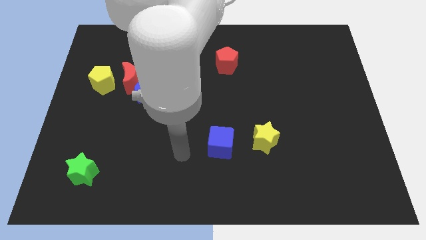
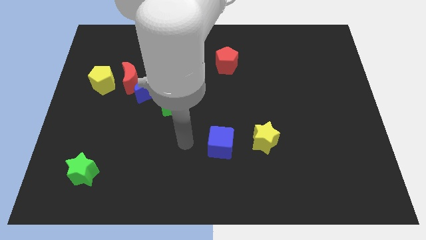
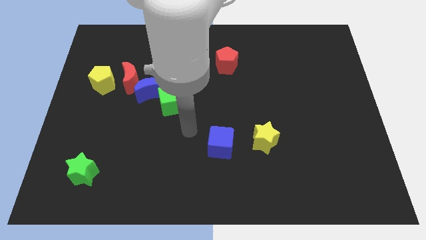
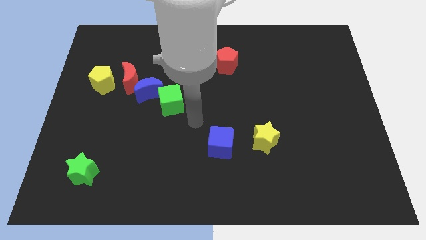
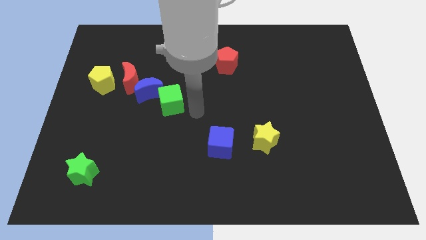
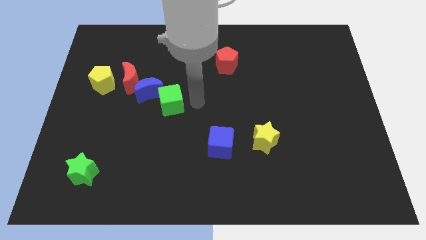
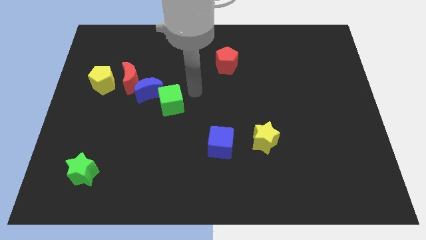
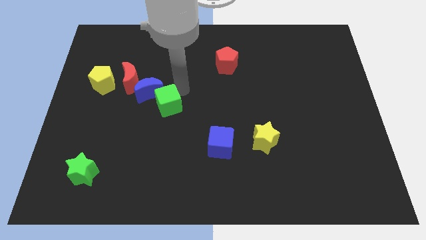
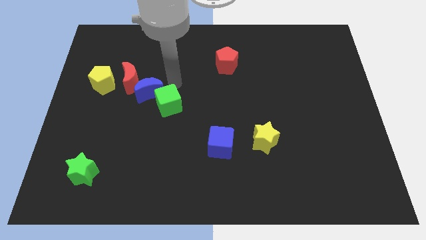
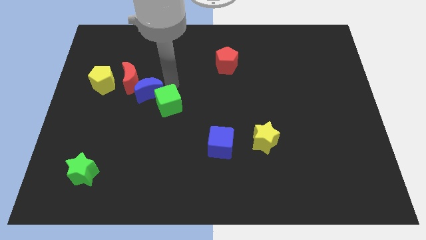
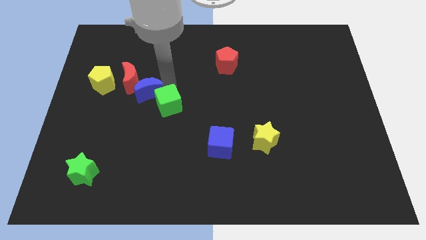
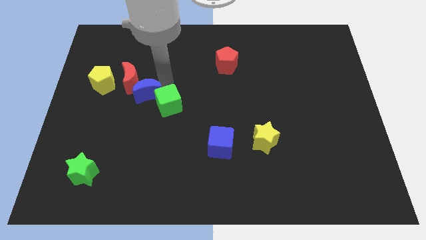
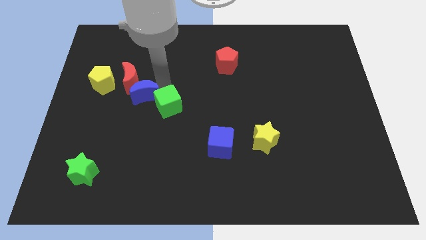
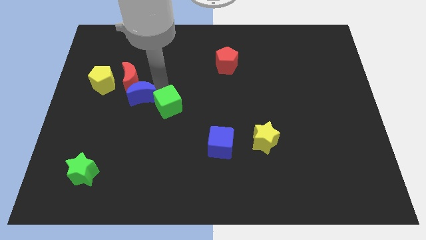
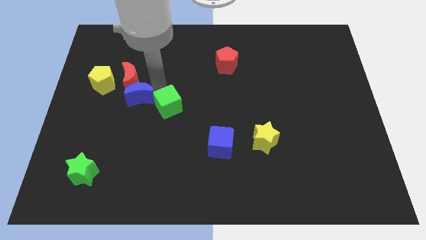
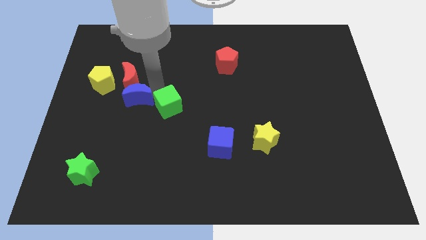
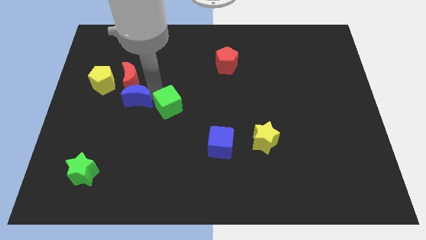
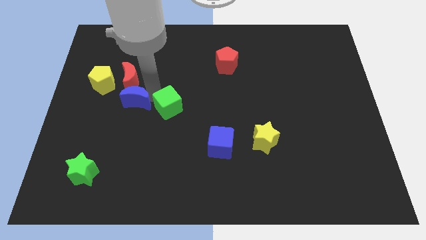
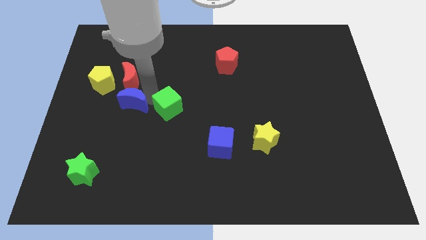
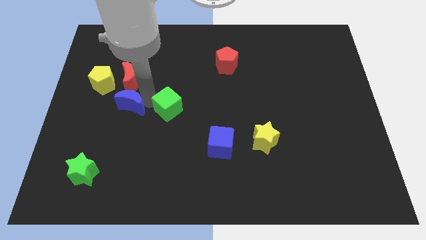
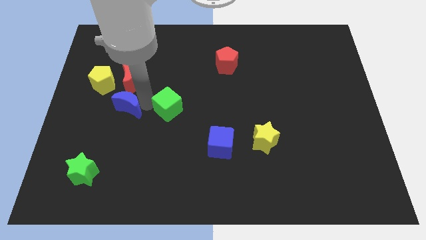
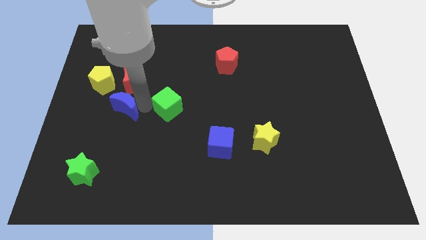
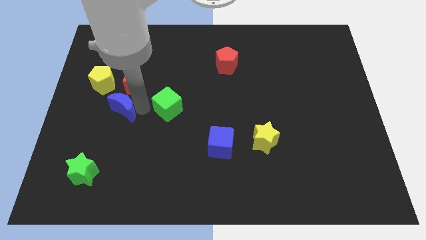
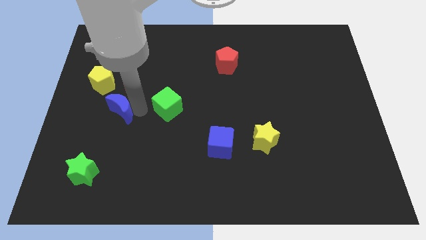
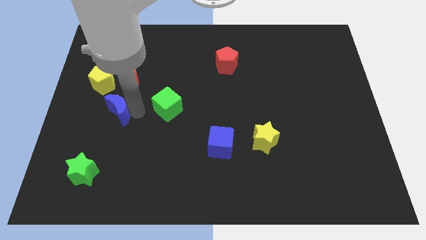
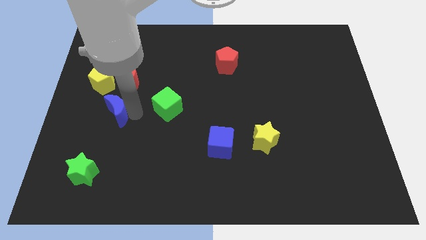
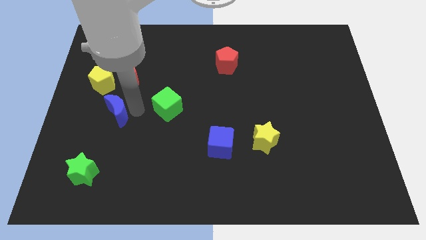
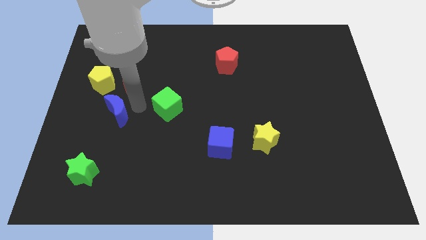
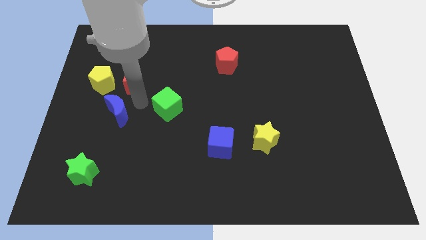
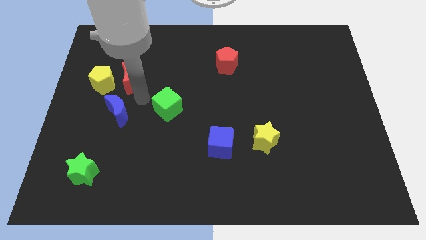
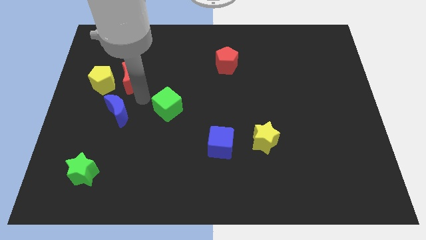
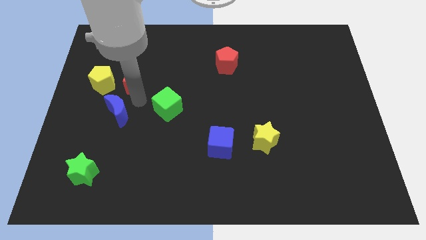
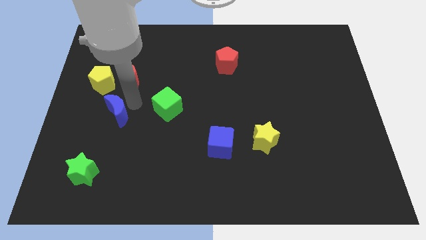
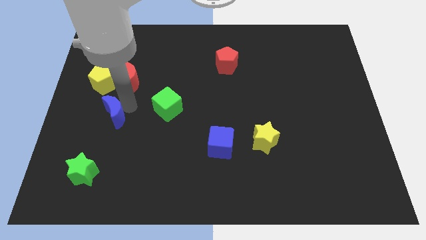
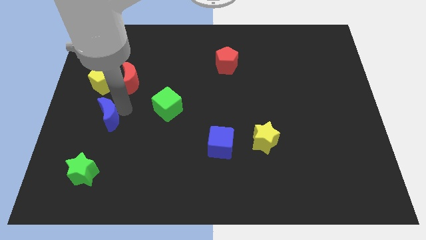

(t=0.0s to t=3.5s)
separate the blue moon from the red moon and green cube

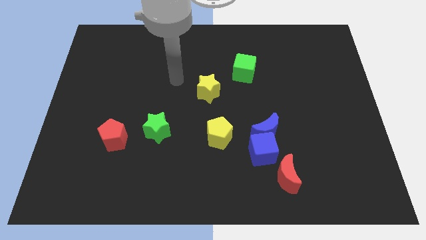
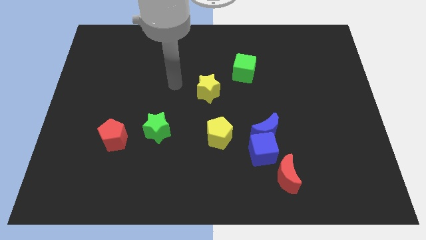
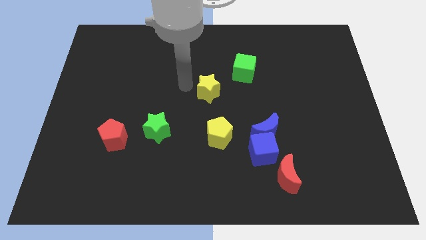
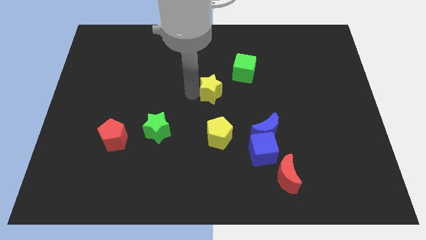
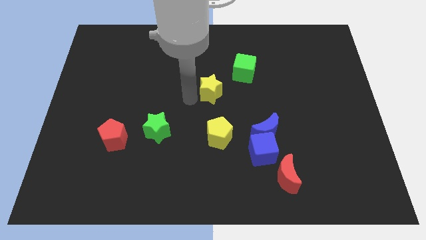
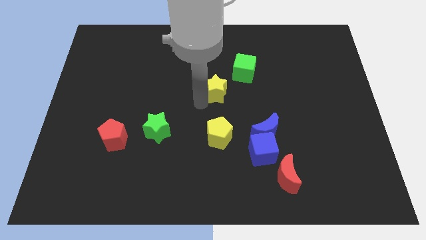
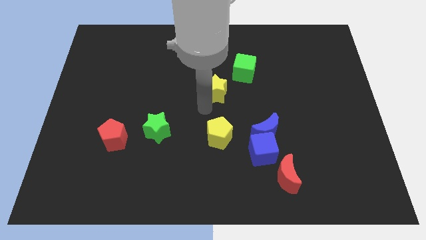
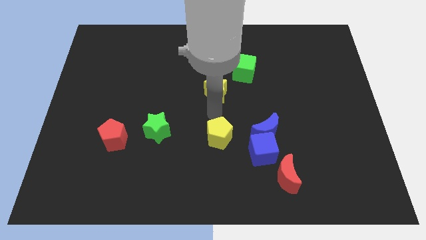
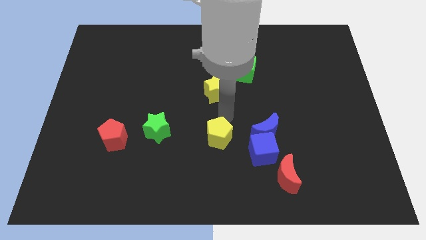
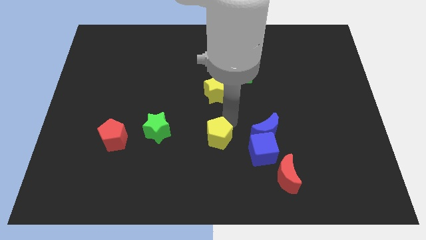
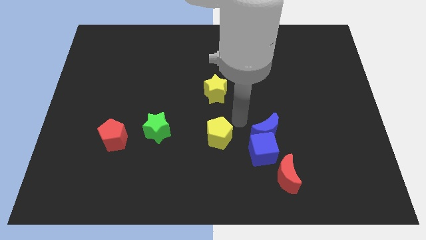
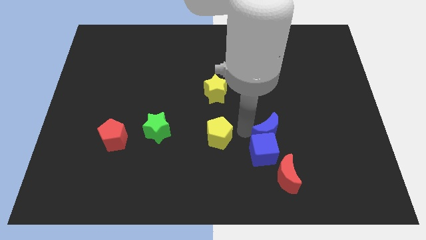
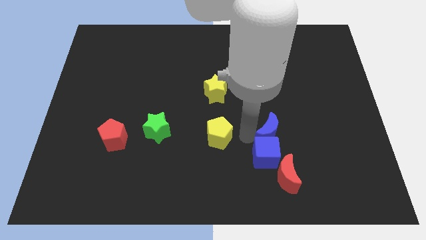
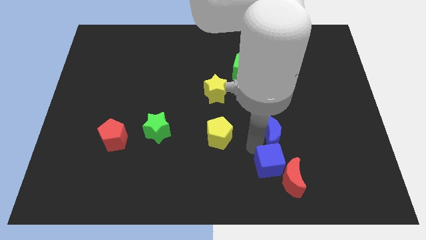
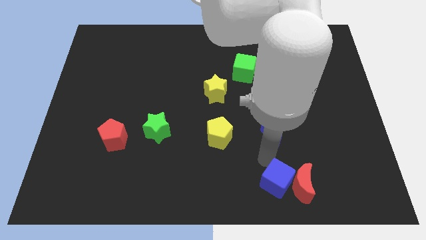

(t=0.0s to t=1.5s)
separate the blue moon from the blue cube

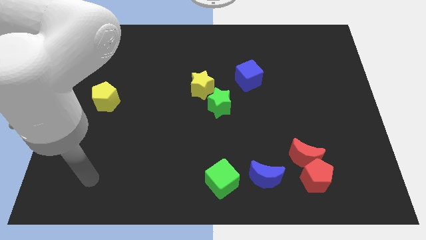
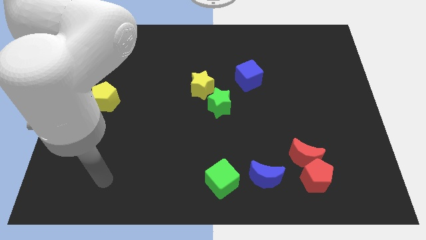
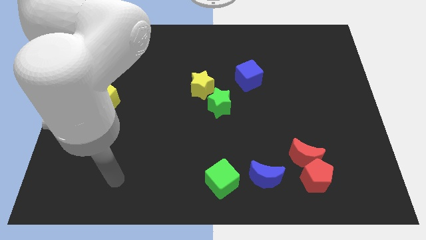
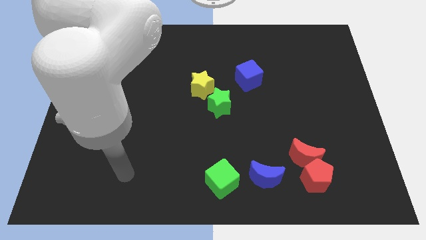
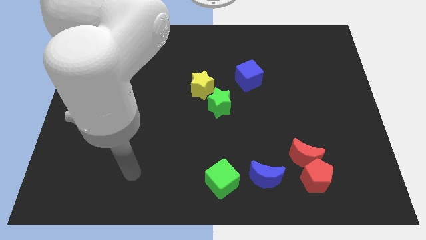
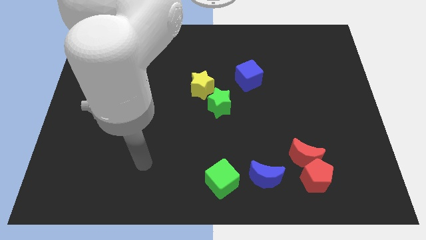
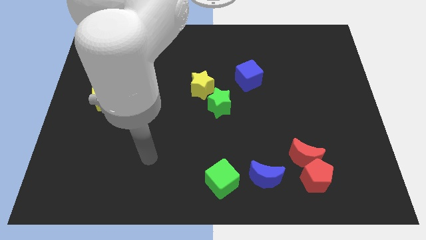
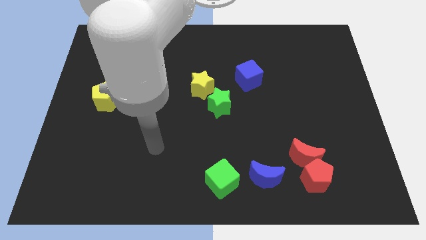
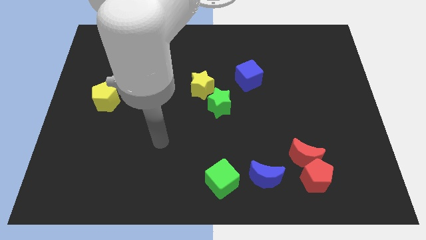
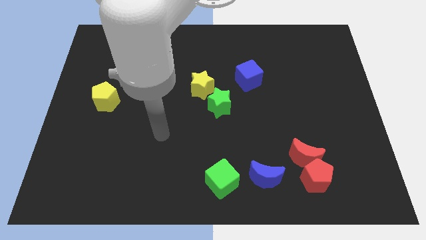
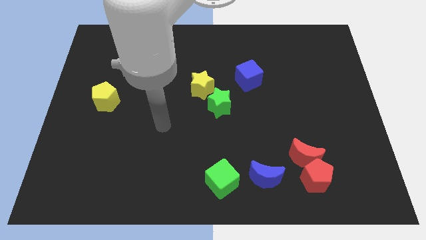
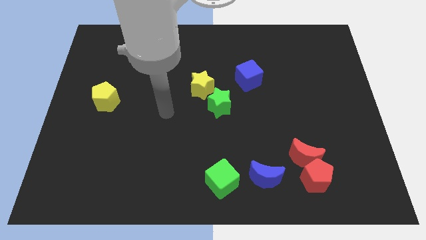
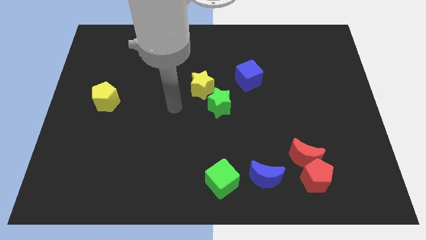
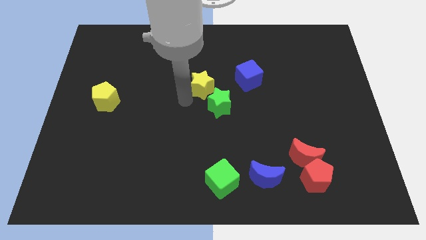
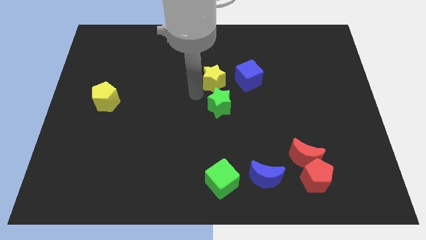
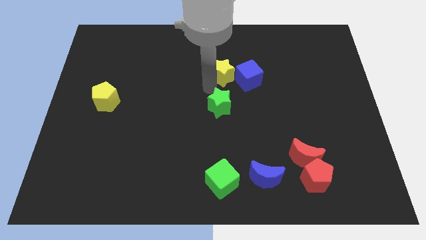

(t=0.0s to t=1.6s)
separate the green star from the yellow star

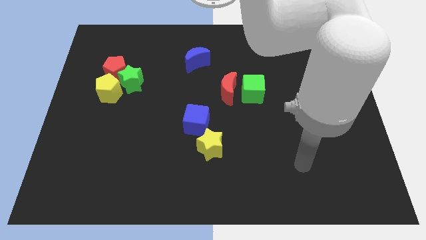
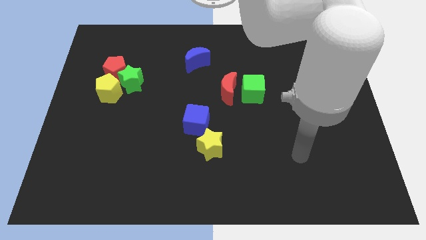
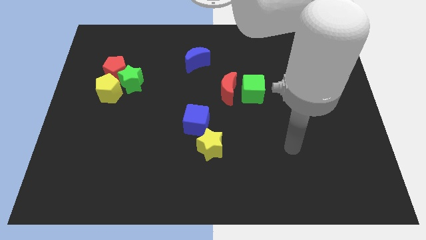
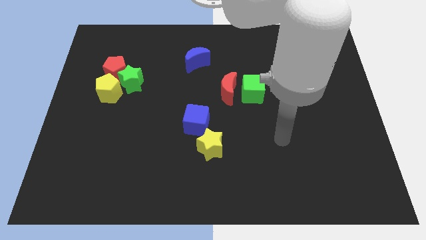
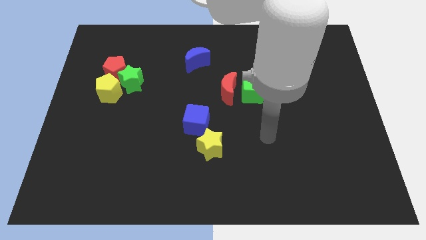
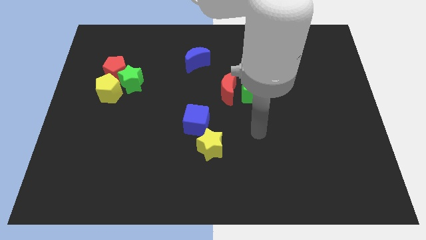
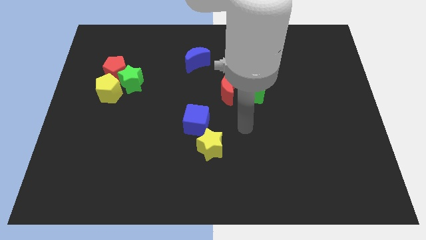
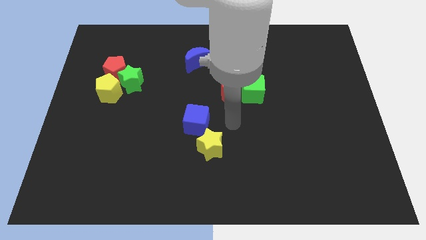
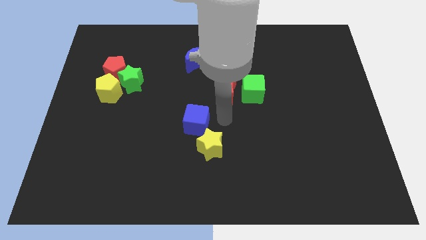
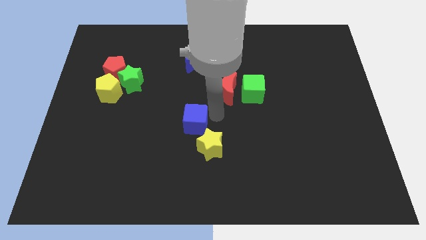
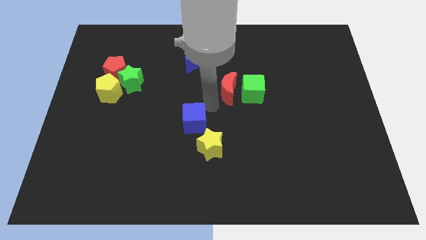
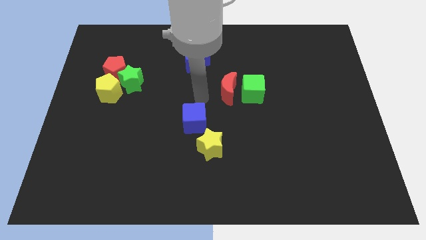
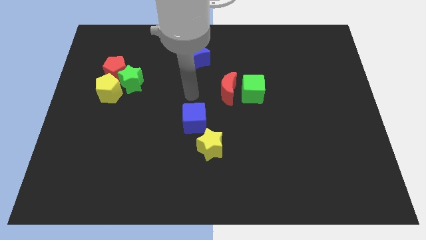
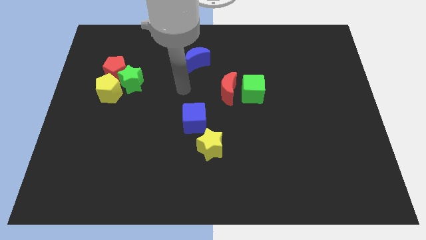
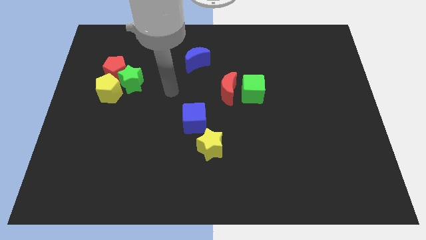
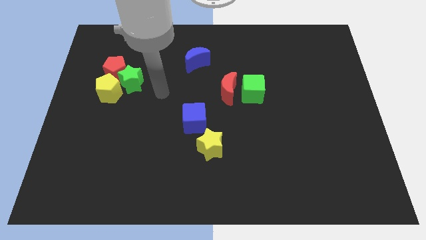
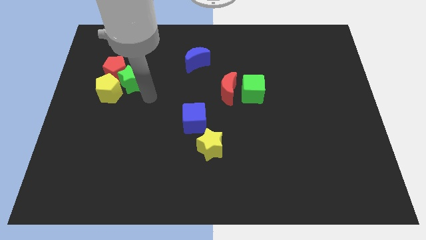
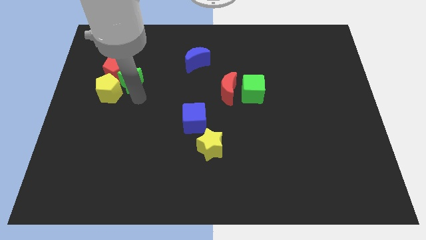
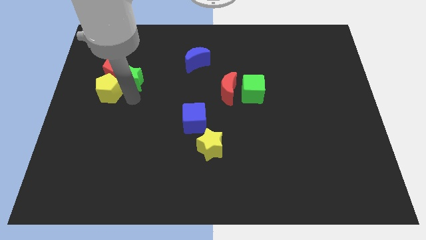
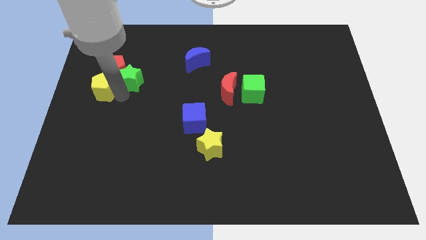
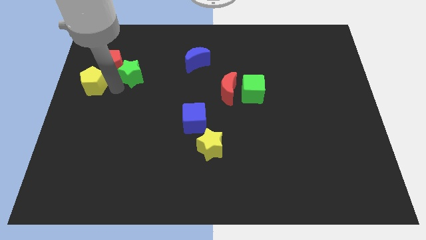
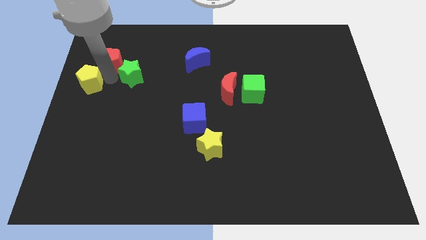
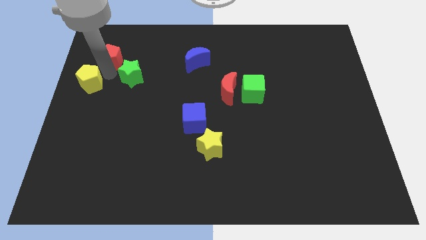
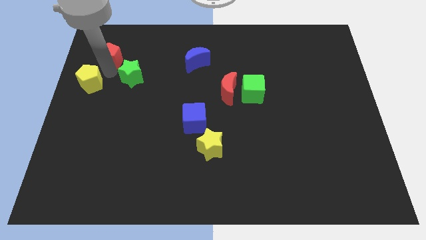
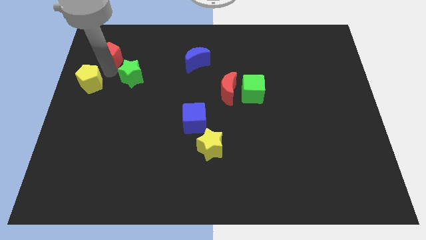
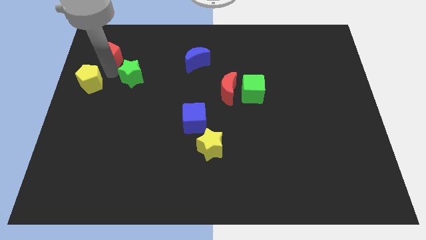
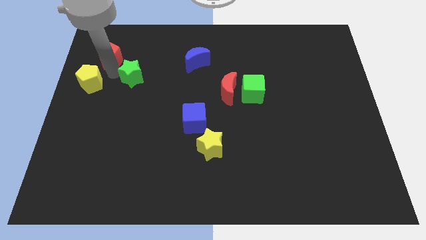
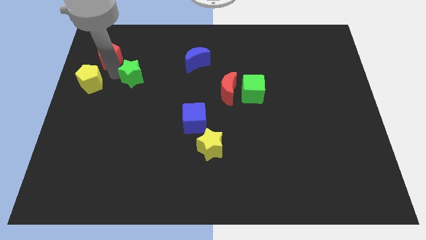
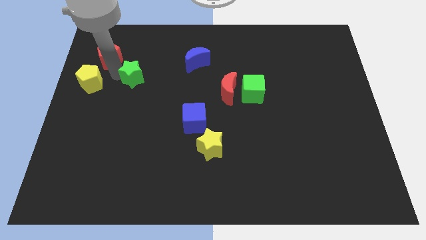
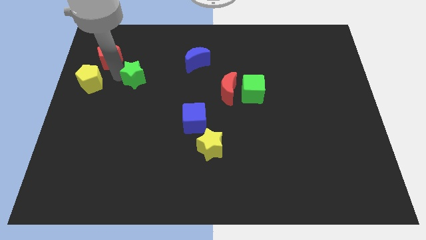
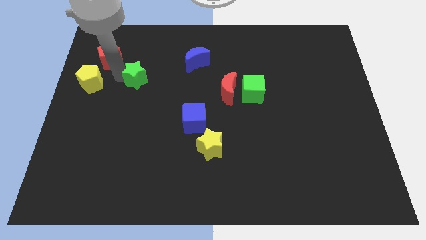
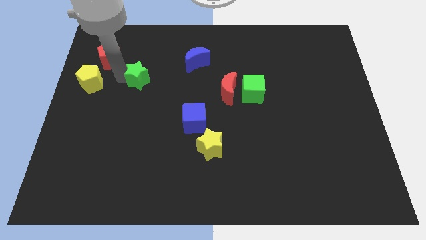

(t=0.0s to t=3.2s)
move the green star away from the red pentagon and yellow pentagon
